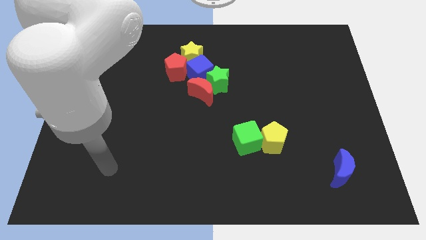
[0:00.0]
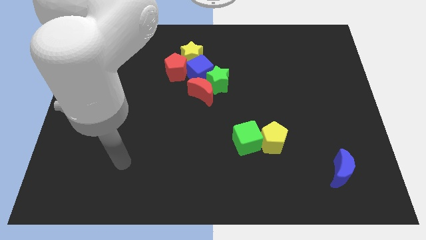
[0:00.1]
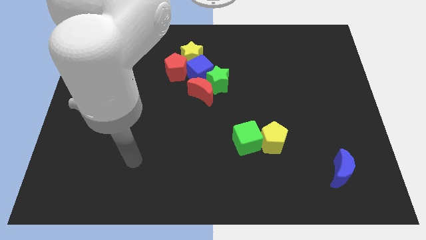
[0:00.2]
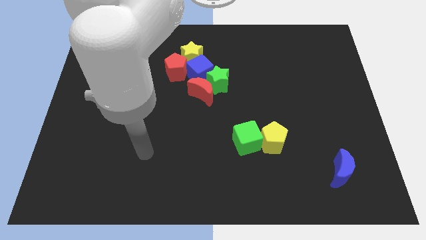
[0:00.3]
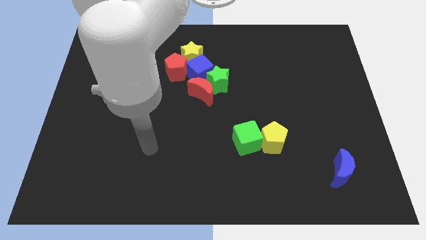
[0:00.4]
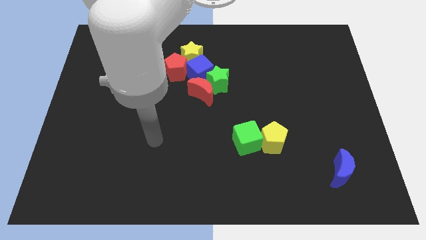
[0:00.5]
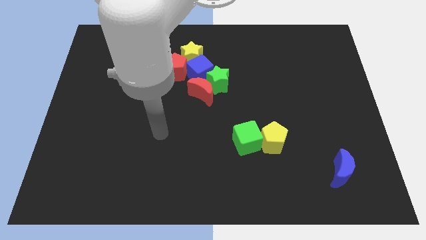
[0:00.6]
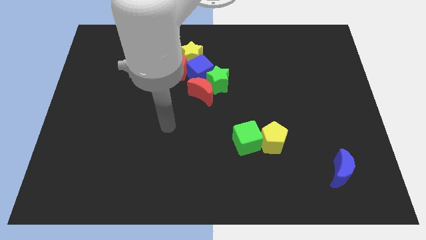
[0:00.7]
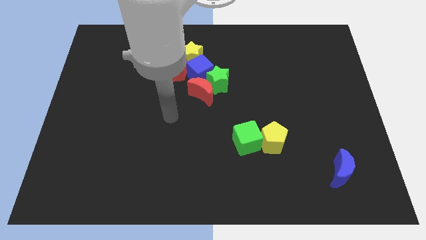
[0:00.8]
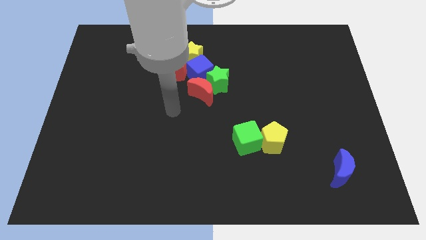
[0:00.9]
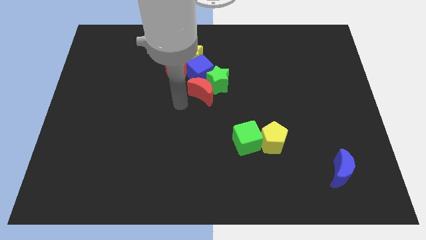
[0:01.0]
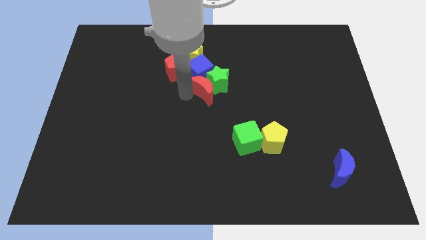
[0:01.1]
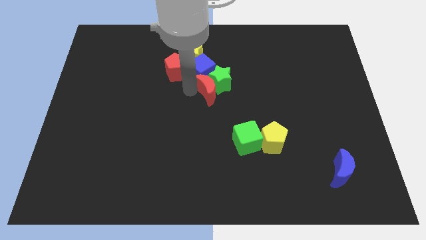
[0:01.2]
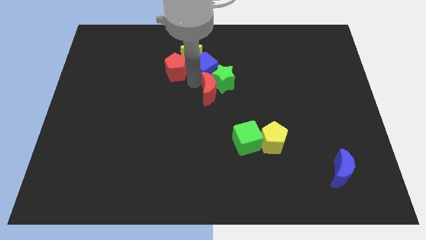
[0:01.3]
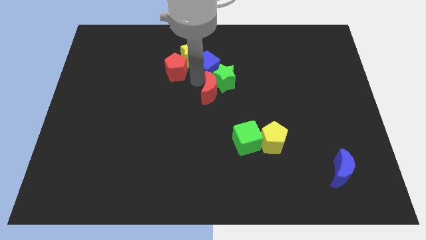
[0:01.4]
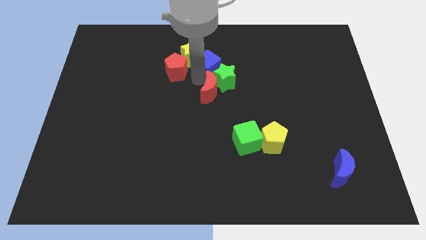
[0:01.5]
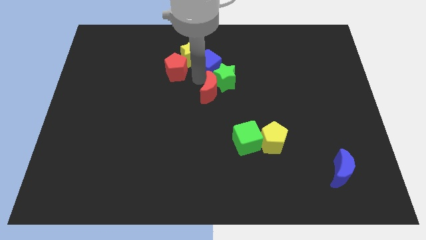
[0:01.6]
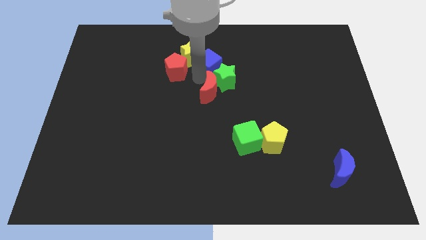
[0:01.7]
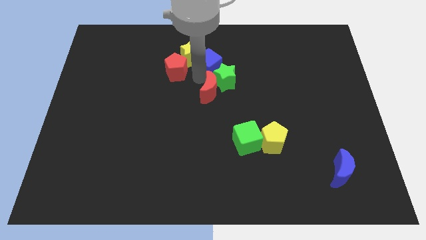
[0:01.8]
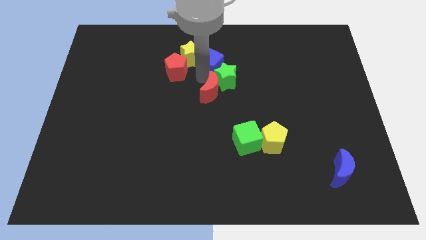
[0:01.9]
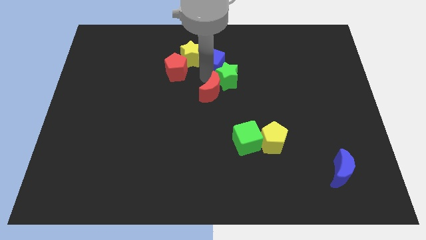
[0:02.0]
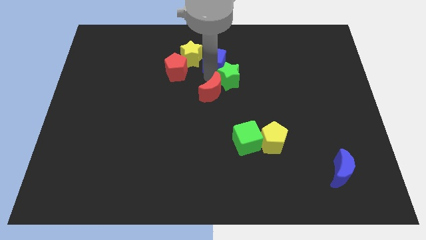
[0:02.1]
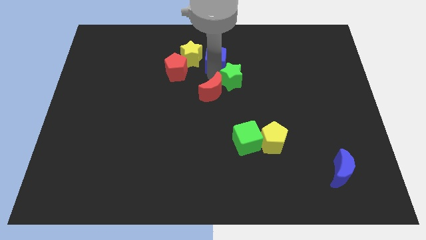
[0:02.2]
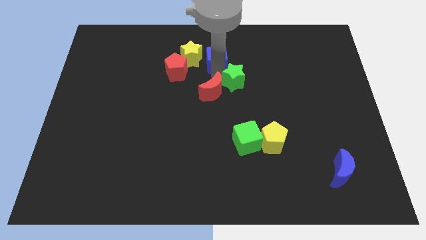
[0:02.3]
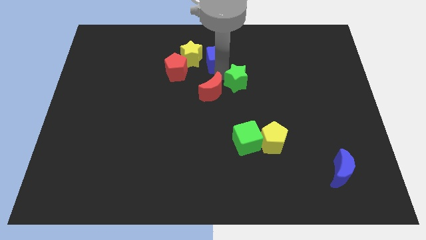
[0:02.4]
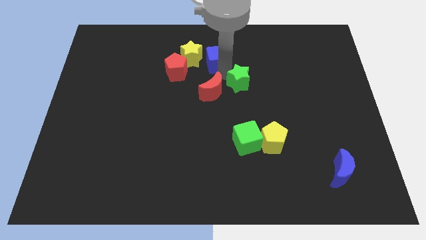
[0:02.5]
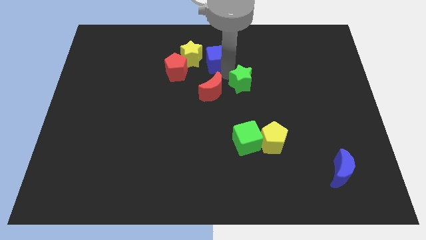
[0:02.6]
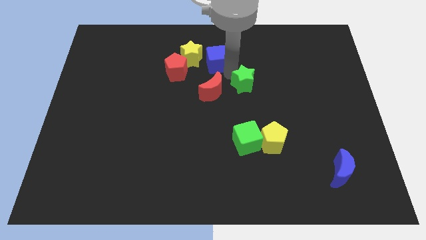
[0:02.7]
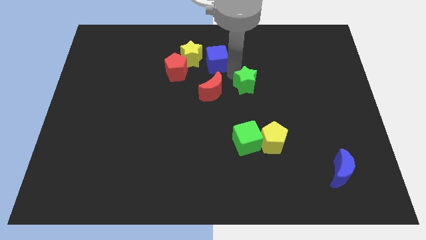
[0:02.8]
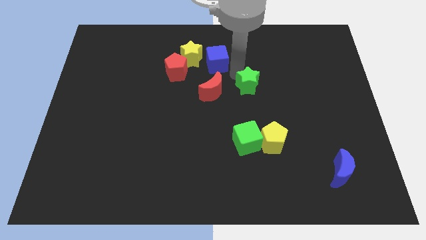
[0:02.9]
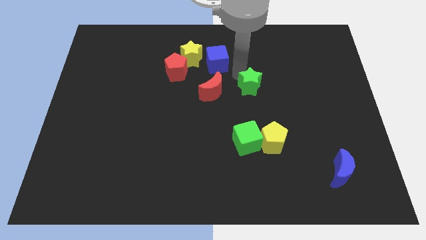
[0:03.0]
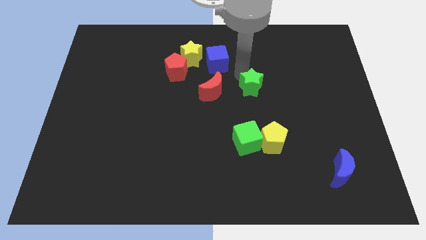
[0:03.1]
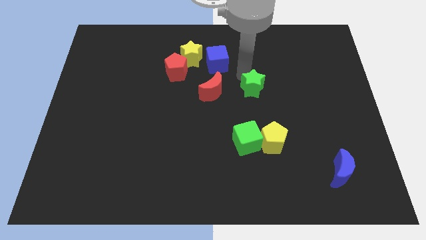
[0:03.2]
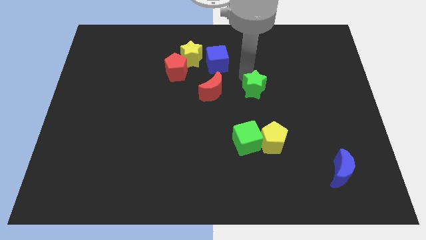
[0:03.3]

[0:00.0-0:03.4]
move the green star away from the red moon and blue cube

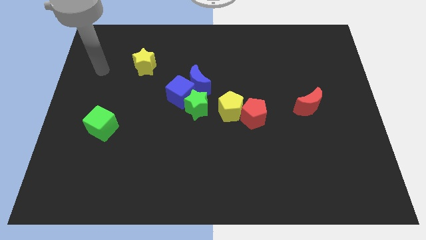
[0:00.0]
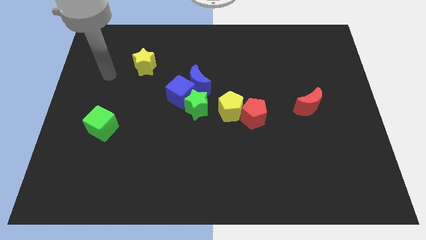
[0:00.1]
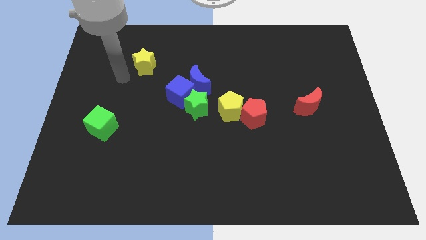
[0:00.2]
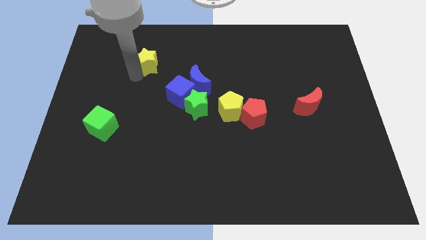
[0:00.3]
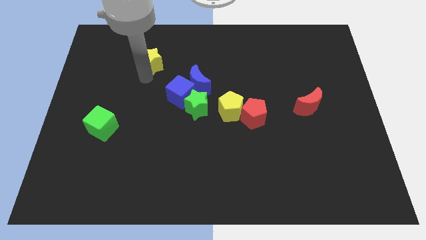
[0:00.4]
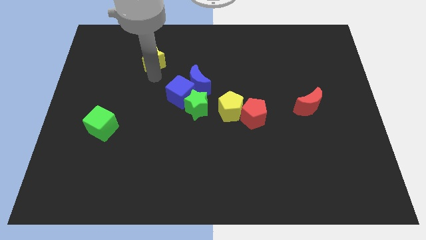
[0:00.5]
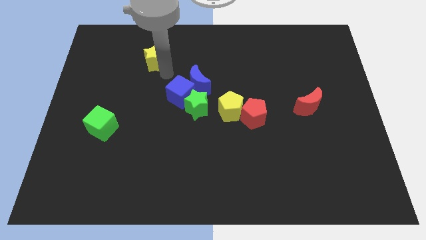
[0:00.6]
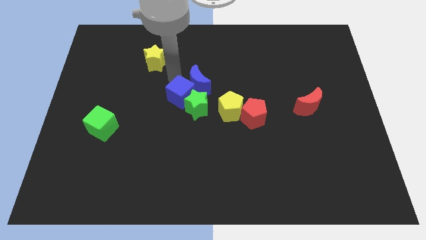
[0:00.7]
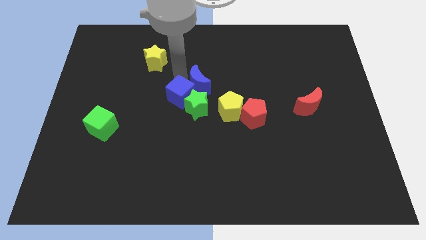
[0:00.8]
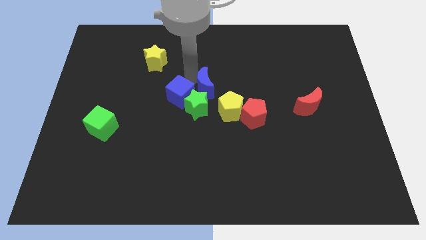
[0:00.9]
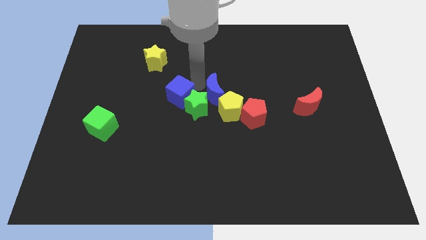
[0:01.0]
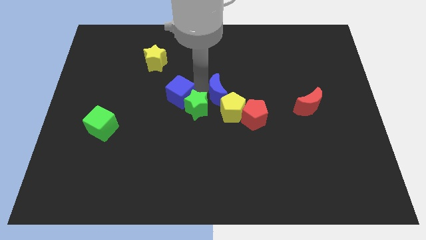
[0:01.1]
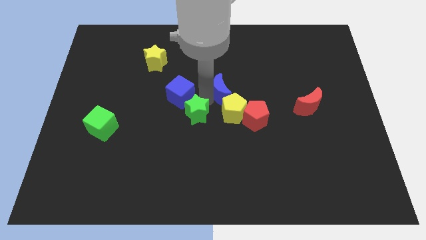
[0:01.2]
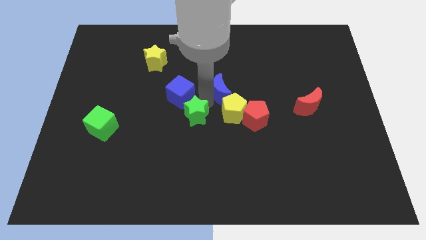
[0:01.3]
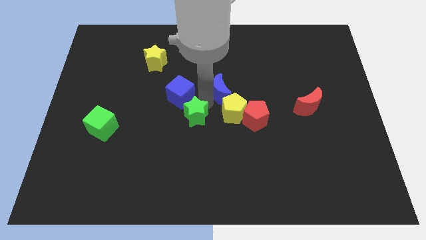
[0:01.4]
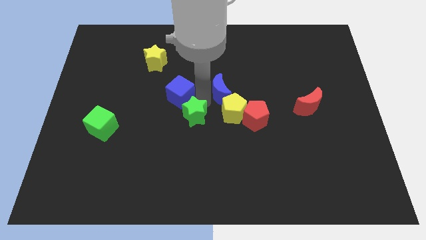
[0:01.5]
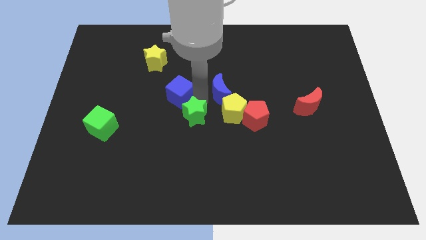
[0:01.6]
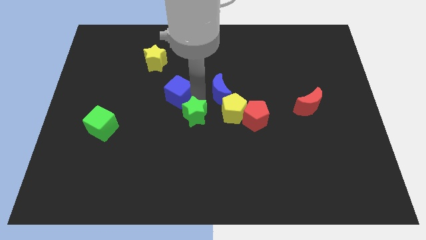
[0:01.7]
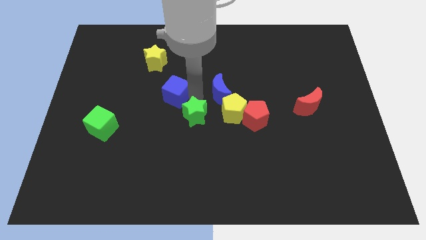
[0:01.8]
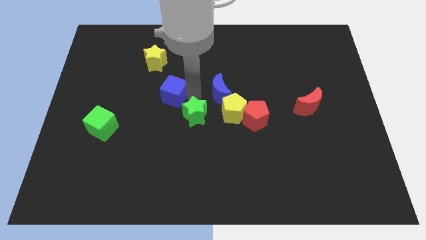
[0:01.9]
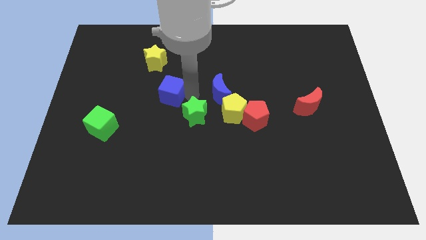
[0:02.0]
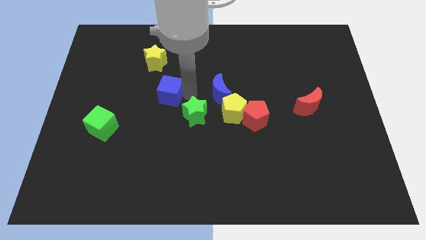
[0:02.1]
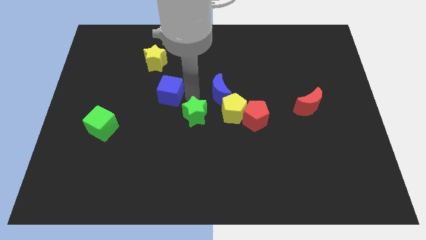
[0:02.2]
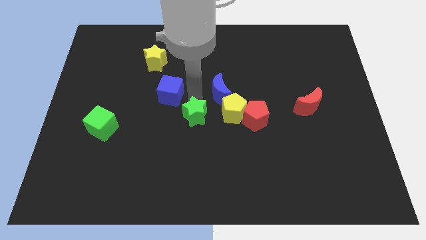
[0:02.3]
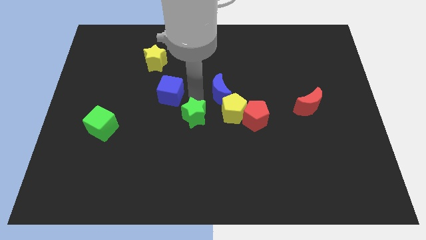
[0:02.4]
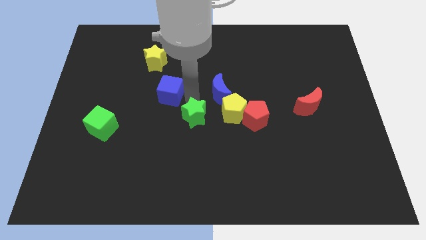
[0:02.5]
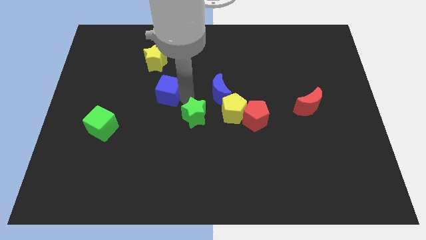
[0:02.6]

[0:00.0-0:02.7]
pull the blue cube apart from the blue moon and green star

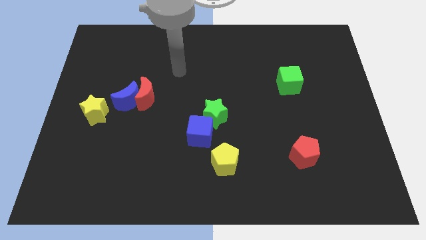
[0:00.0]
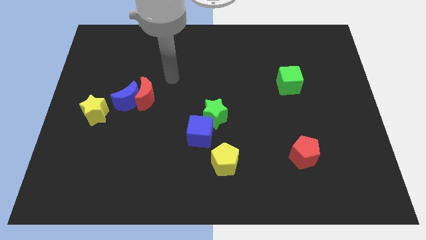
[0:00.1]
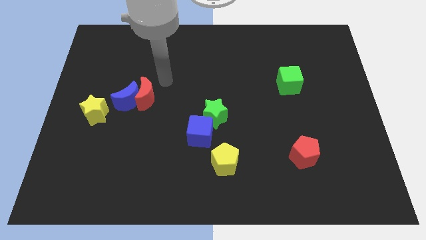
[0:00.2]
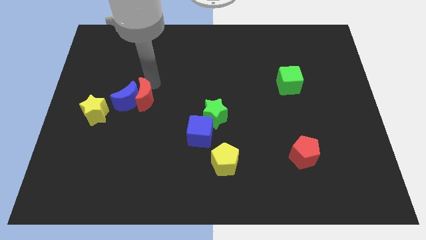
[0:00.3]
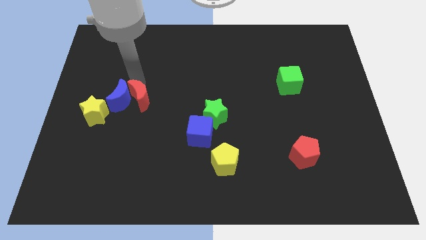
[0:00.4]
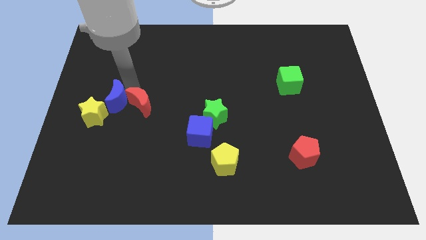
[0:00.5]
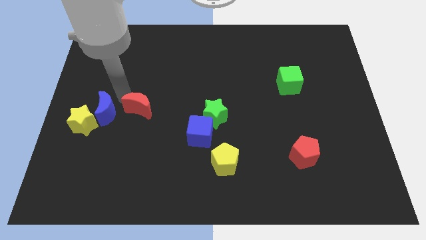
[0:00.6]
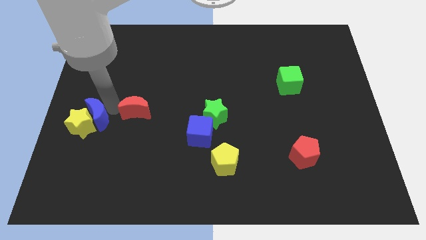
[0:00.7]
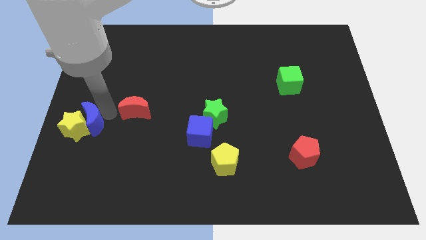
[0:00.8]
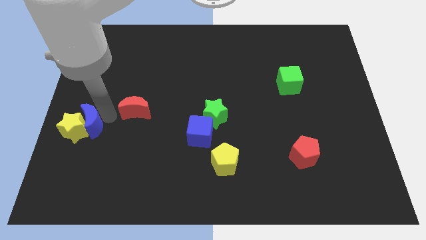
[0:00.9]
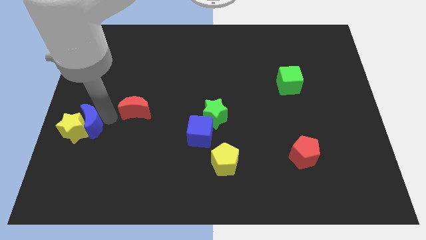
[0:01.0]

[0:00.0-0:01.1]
separate the red moon from the blue moon

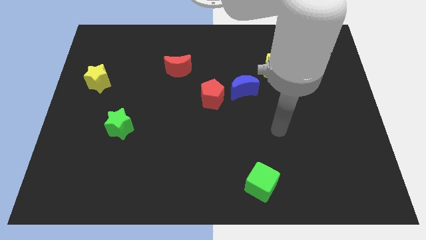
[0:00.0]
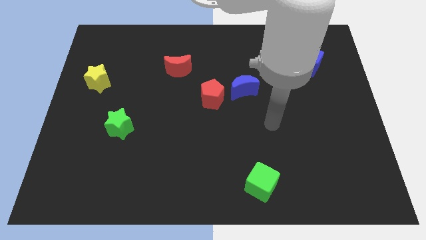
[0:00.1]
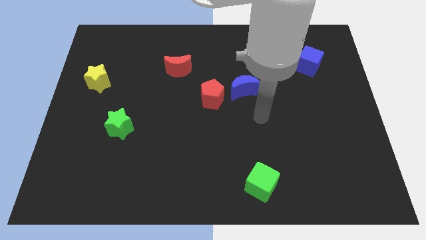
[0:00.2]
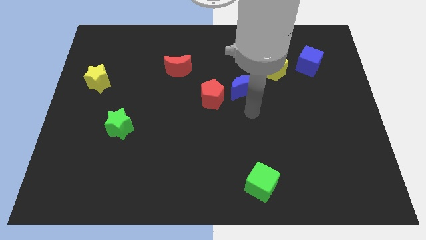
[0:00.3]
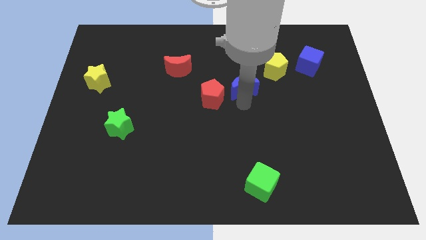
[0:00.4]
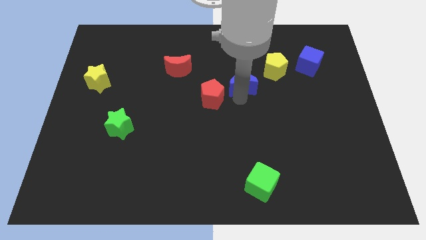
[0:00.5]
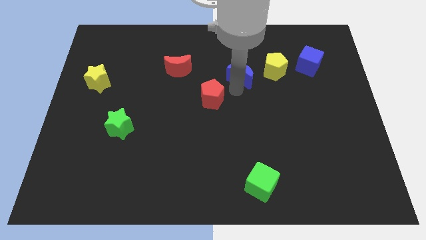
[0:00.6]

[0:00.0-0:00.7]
move the red pentagon away from the blue moon

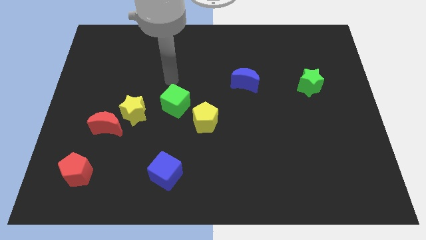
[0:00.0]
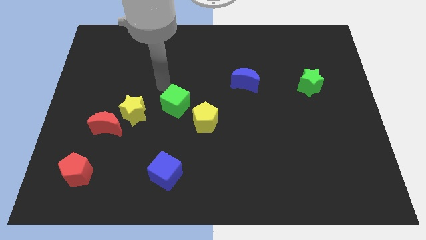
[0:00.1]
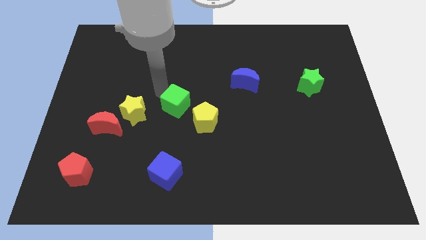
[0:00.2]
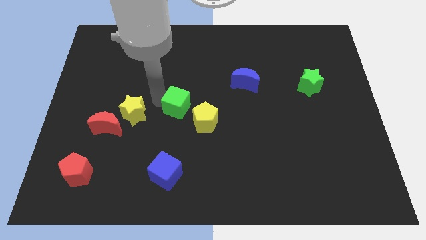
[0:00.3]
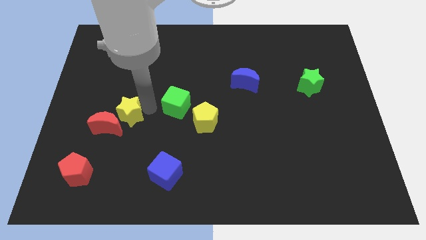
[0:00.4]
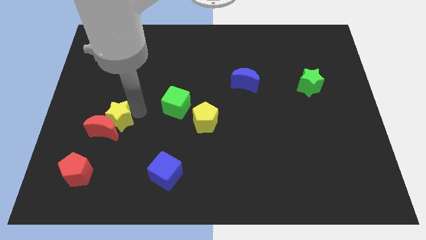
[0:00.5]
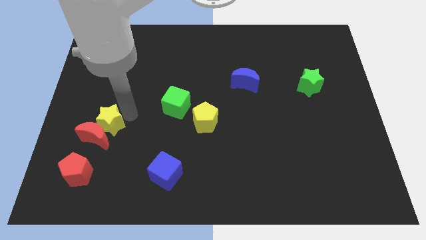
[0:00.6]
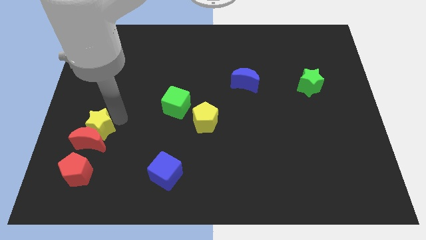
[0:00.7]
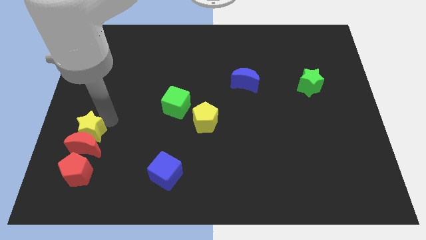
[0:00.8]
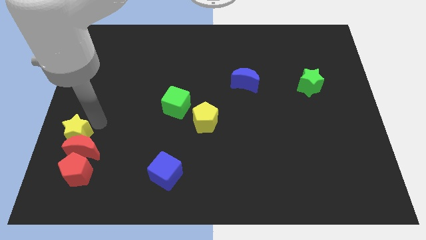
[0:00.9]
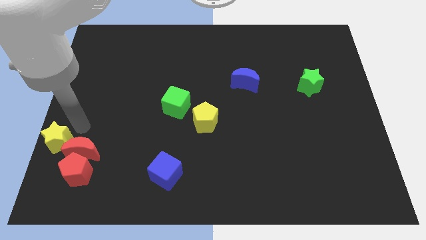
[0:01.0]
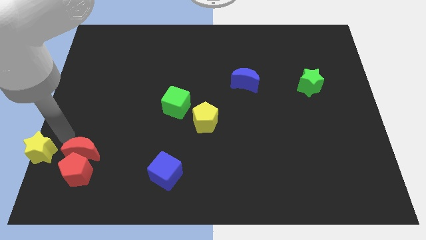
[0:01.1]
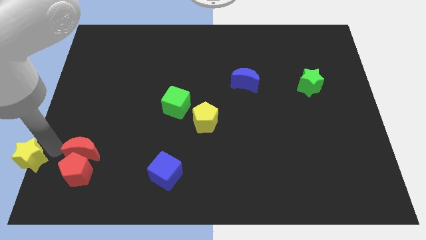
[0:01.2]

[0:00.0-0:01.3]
pull the red moon apart from the yellow star
